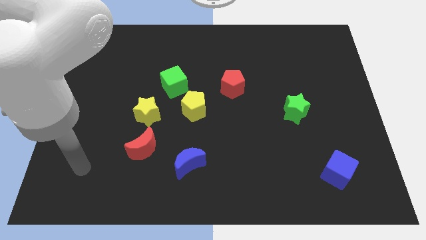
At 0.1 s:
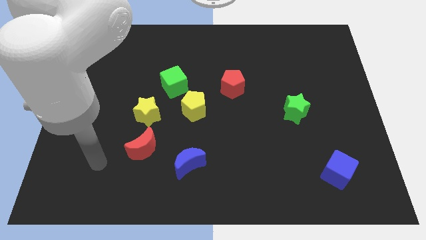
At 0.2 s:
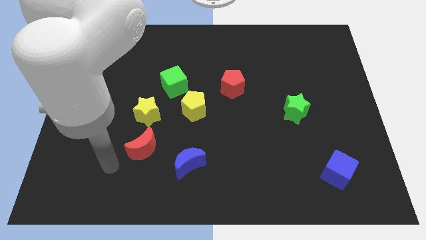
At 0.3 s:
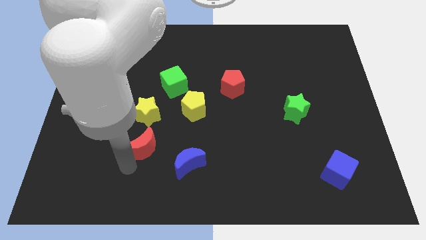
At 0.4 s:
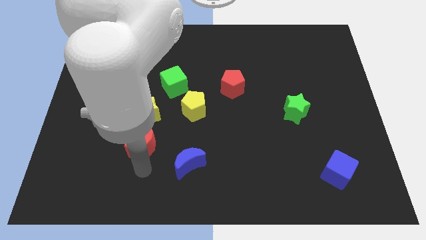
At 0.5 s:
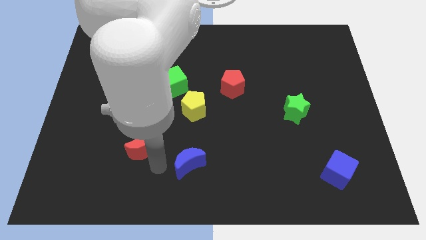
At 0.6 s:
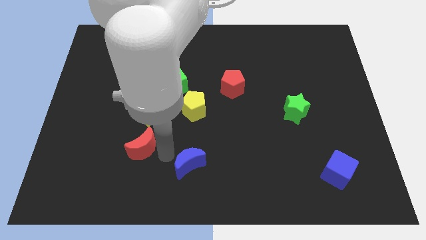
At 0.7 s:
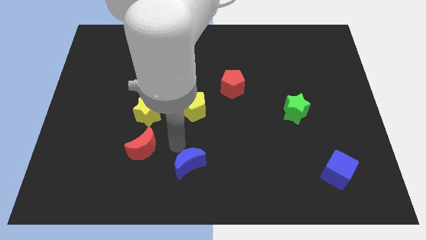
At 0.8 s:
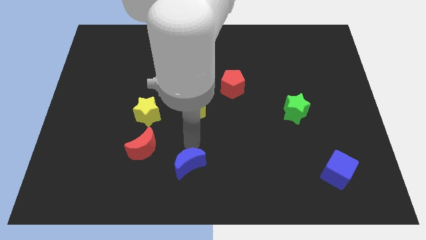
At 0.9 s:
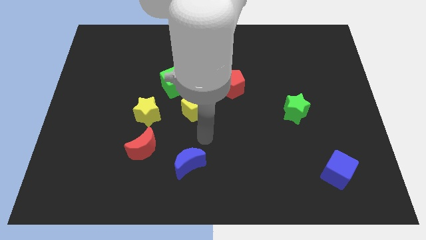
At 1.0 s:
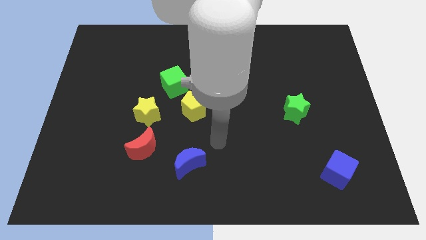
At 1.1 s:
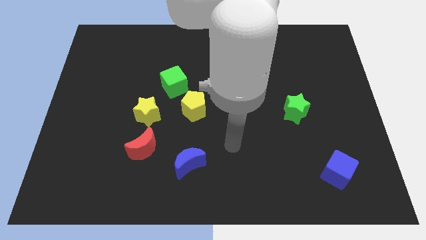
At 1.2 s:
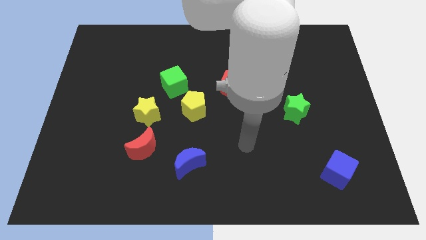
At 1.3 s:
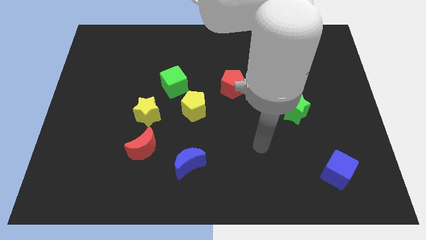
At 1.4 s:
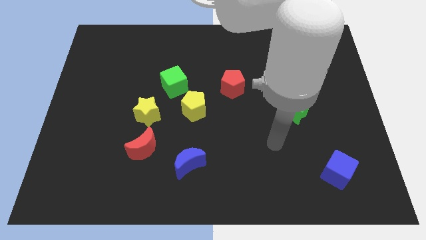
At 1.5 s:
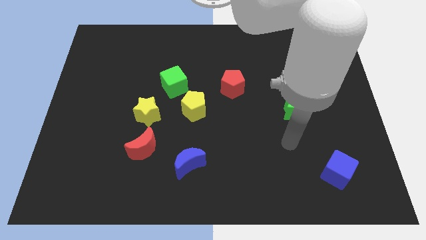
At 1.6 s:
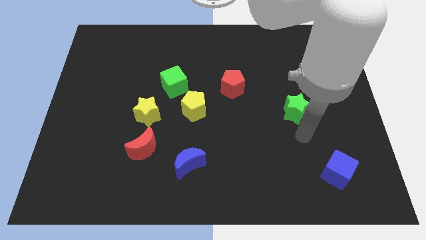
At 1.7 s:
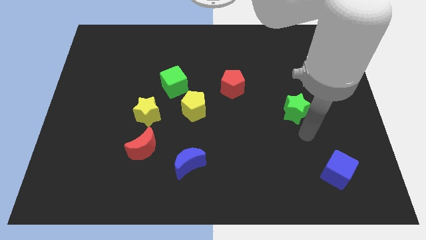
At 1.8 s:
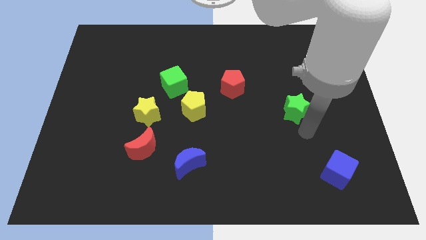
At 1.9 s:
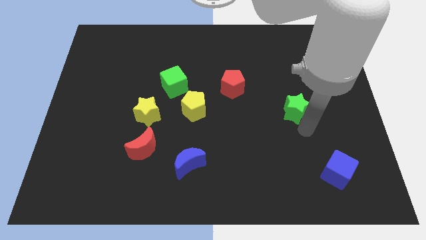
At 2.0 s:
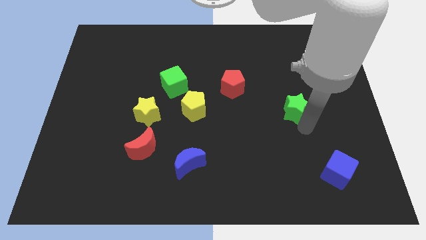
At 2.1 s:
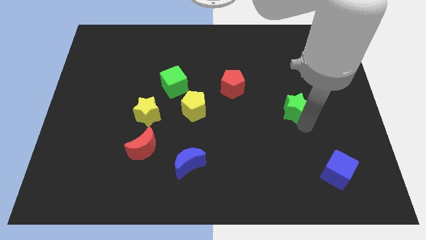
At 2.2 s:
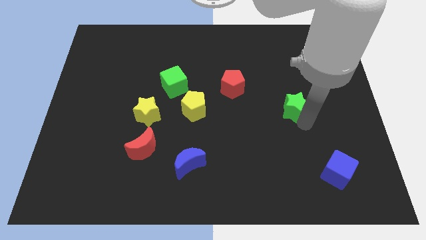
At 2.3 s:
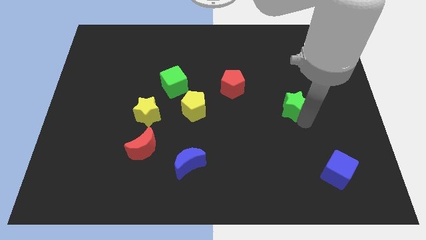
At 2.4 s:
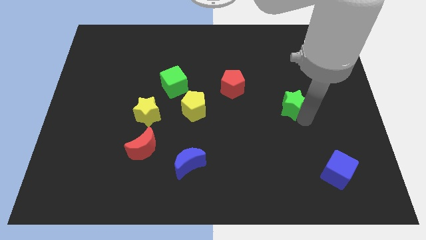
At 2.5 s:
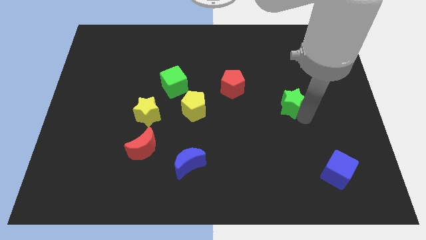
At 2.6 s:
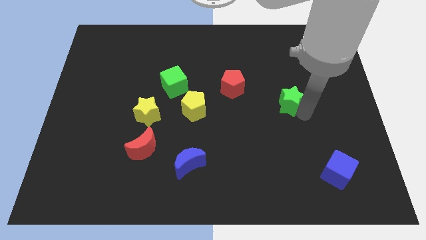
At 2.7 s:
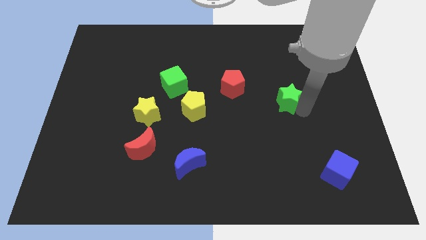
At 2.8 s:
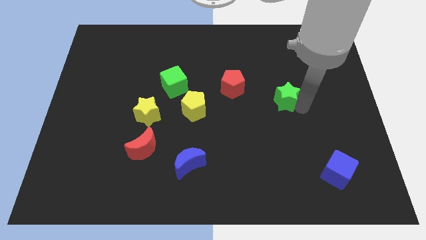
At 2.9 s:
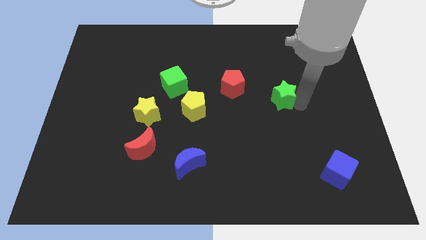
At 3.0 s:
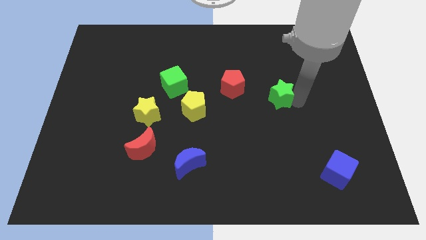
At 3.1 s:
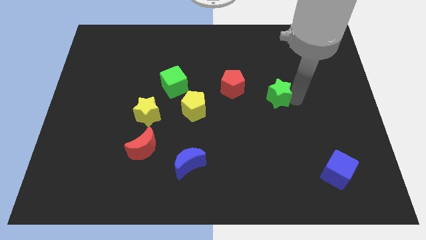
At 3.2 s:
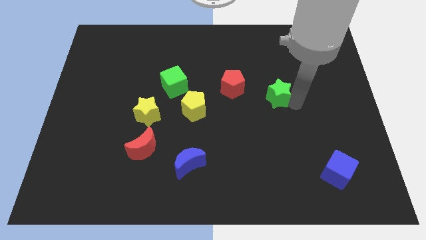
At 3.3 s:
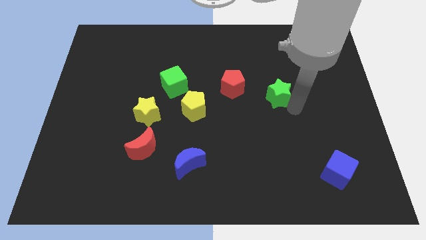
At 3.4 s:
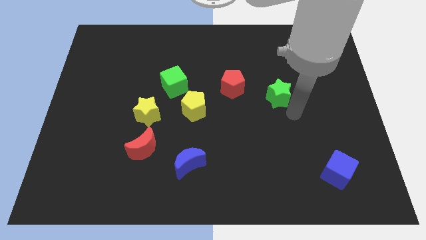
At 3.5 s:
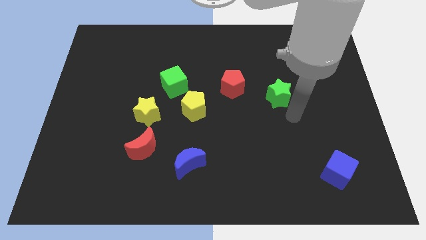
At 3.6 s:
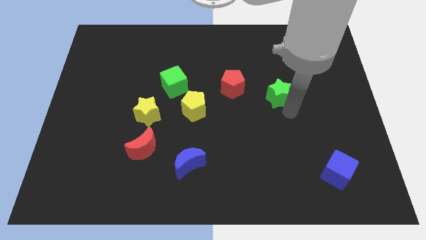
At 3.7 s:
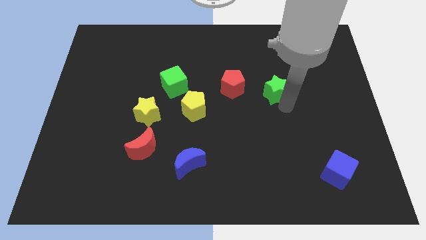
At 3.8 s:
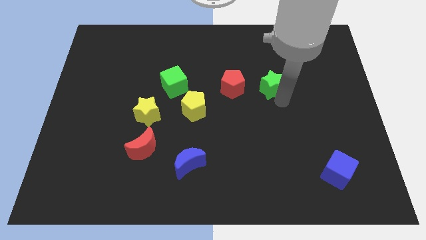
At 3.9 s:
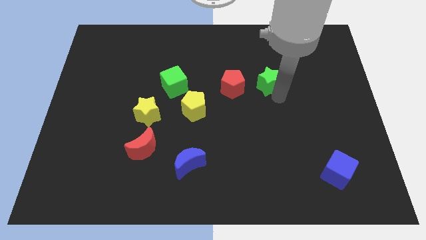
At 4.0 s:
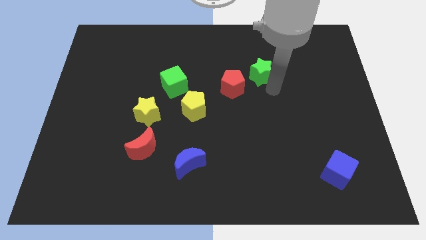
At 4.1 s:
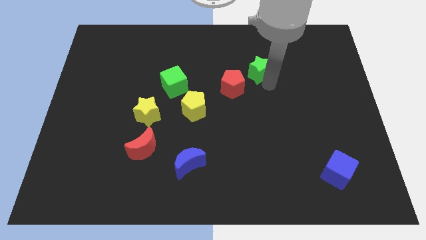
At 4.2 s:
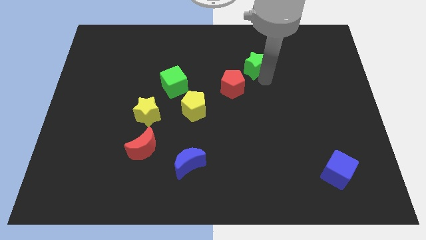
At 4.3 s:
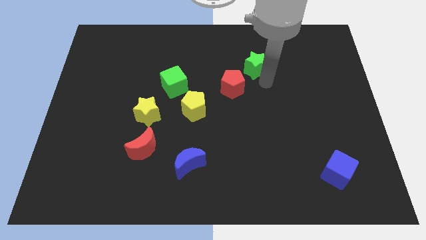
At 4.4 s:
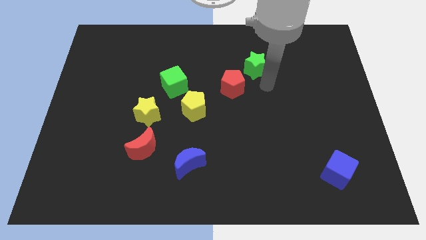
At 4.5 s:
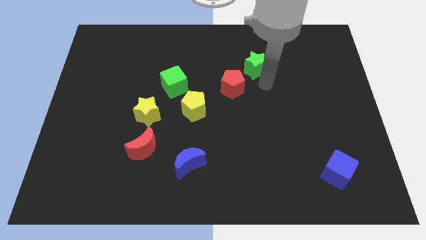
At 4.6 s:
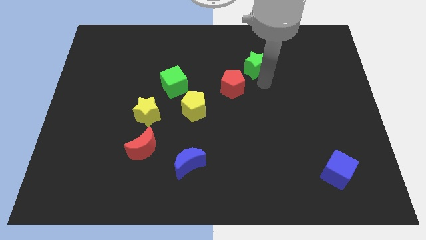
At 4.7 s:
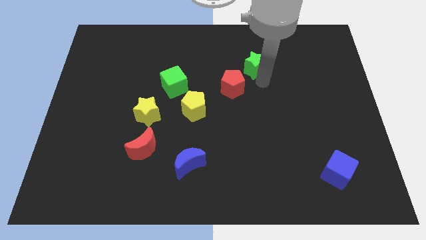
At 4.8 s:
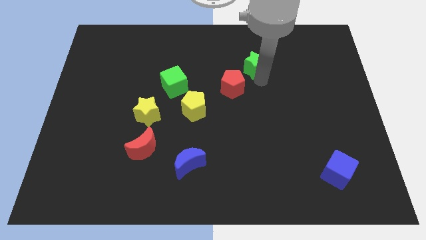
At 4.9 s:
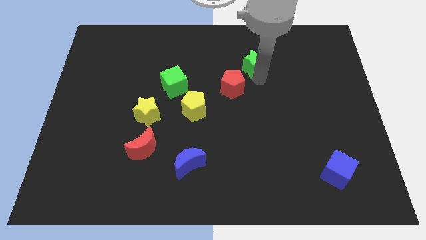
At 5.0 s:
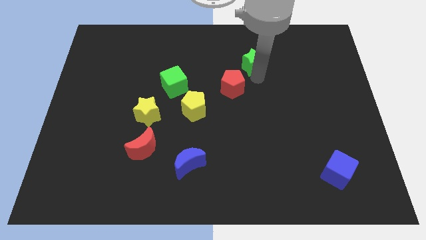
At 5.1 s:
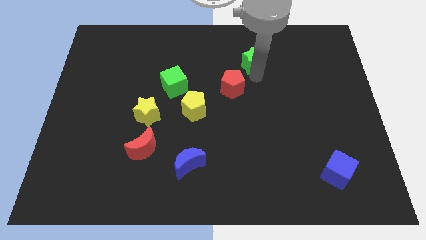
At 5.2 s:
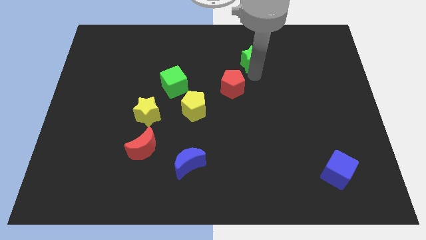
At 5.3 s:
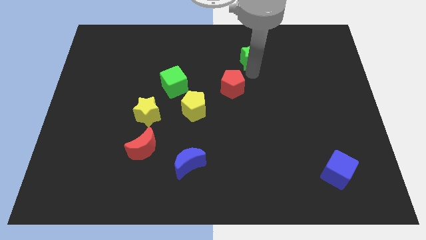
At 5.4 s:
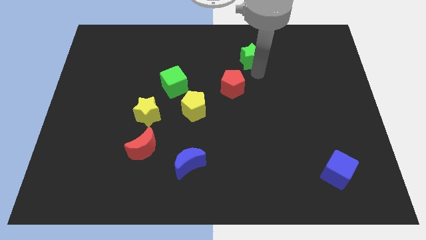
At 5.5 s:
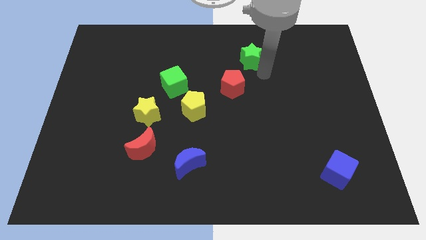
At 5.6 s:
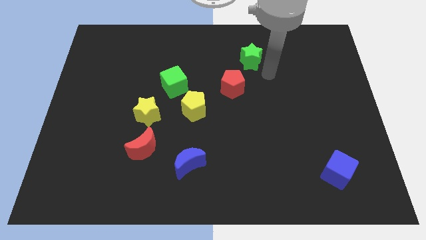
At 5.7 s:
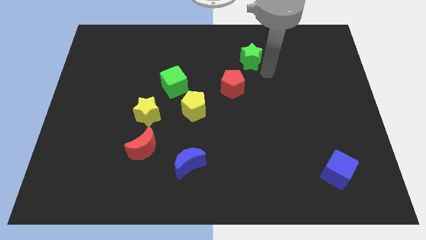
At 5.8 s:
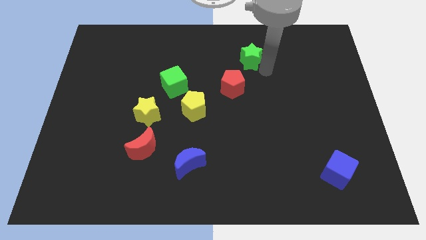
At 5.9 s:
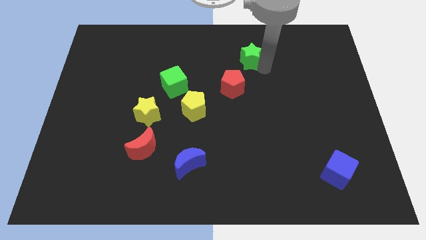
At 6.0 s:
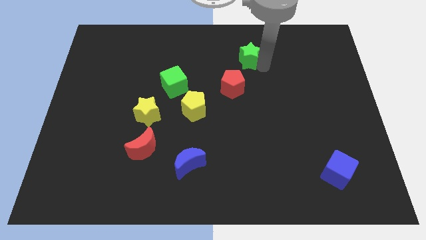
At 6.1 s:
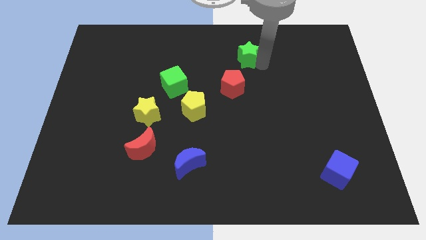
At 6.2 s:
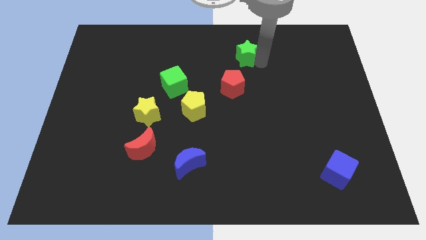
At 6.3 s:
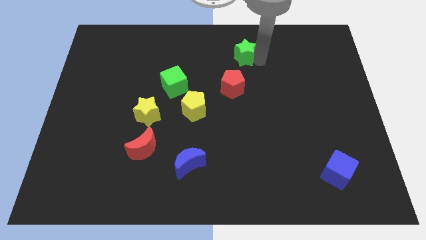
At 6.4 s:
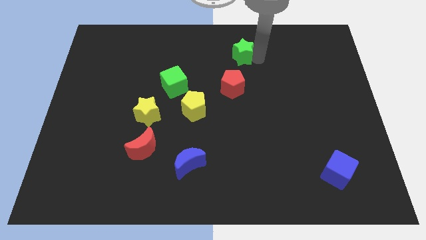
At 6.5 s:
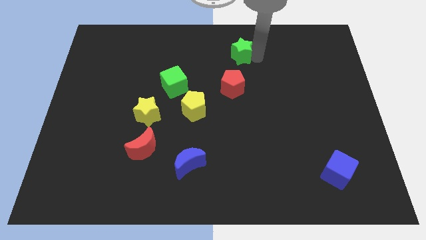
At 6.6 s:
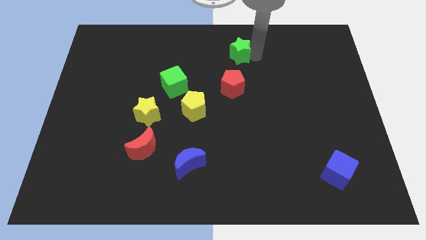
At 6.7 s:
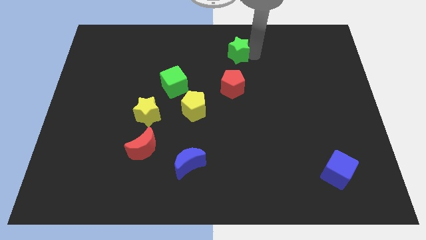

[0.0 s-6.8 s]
push the green star to the top
